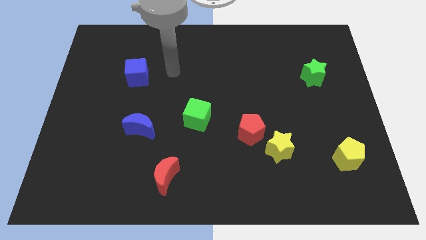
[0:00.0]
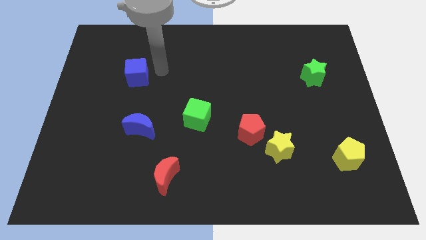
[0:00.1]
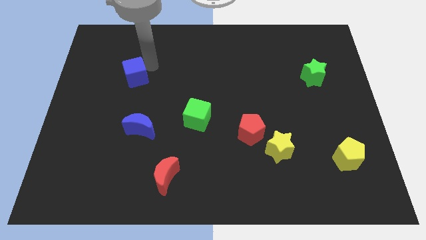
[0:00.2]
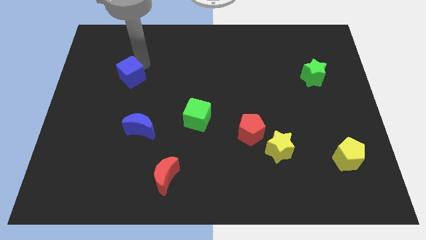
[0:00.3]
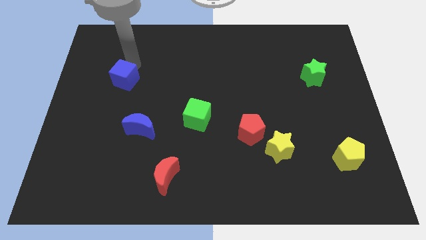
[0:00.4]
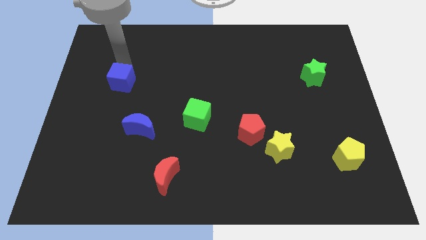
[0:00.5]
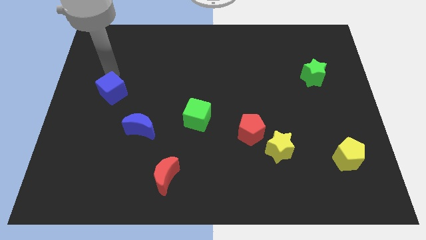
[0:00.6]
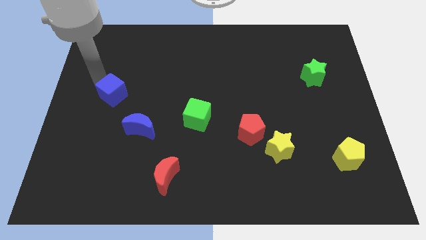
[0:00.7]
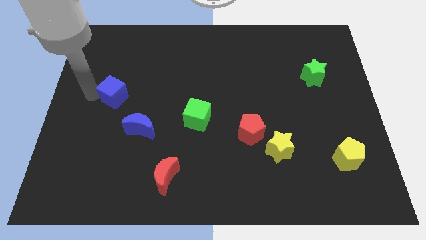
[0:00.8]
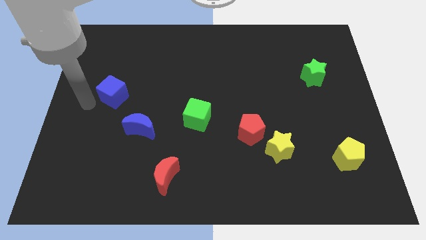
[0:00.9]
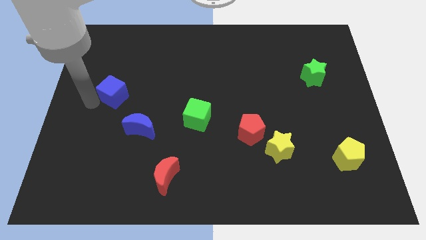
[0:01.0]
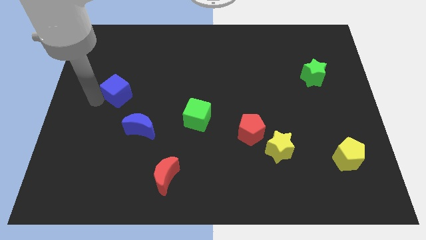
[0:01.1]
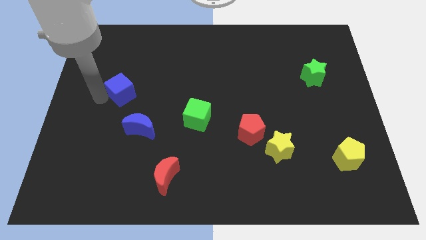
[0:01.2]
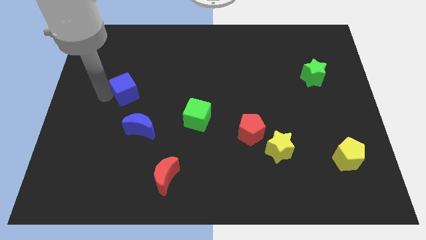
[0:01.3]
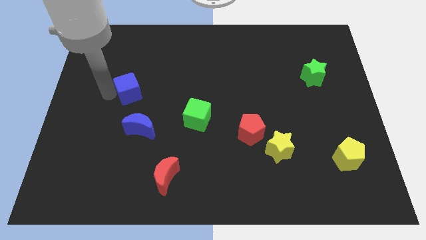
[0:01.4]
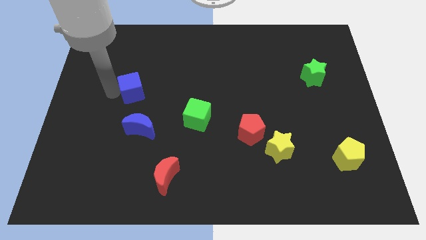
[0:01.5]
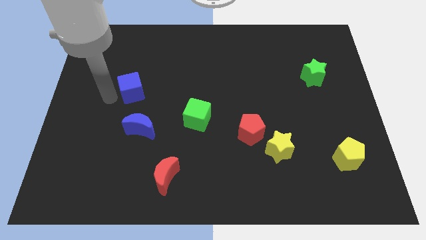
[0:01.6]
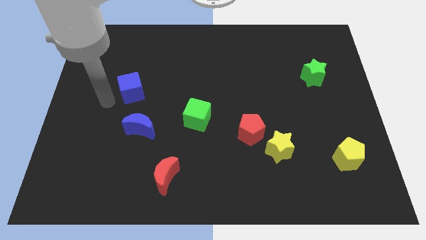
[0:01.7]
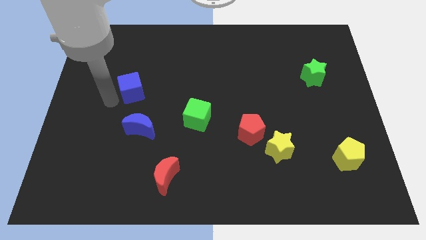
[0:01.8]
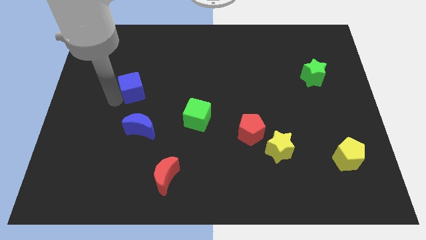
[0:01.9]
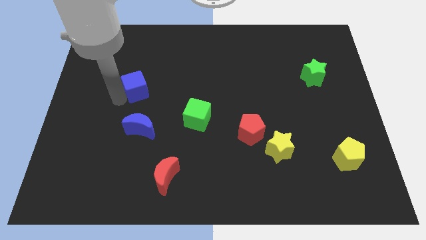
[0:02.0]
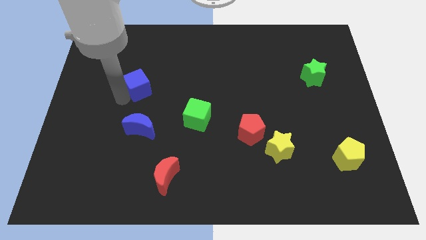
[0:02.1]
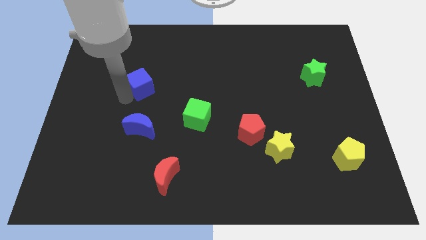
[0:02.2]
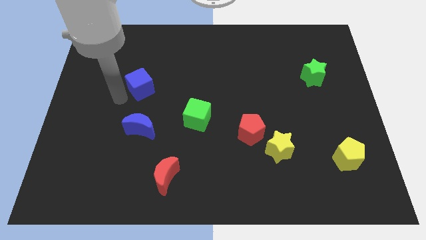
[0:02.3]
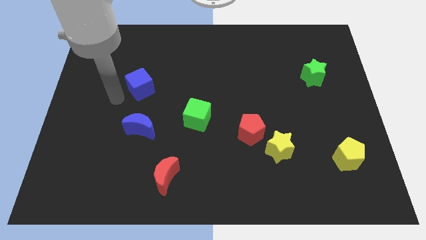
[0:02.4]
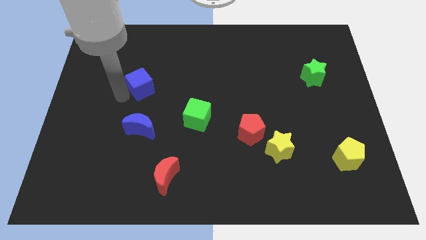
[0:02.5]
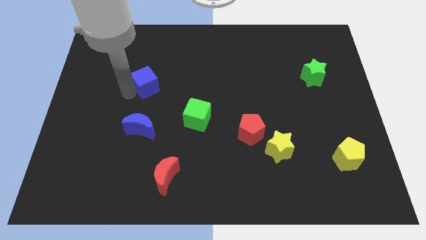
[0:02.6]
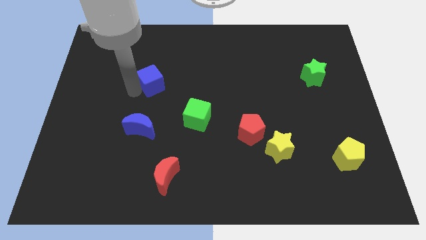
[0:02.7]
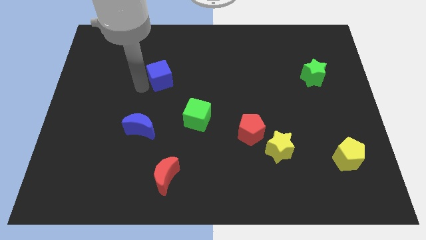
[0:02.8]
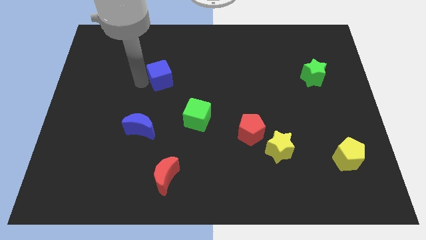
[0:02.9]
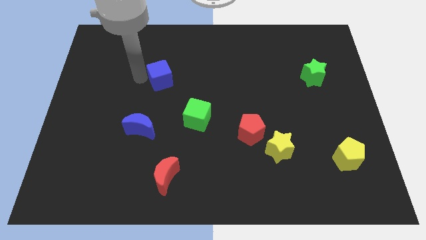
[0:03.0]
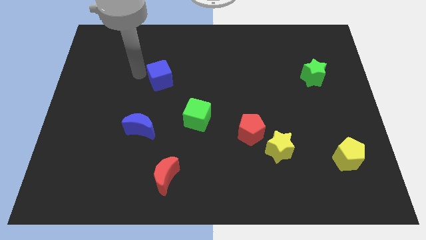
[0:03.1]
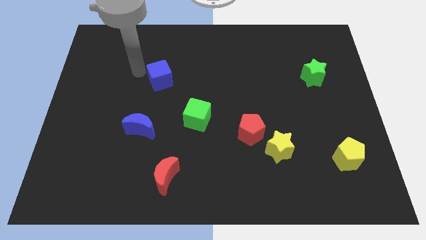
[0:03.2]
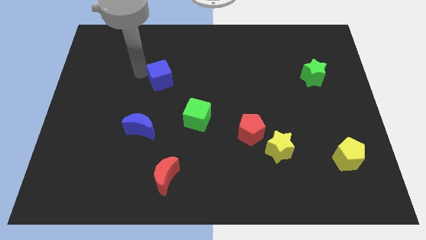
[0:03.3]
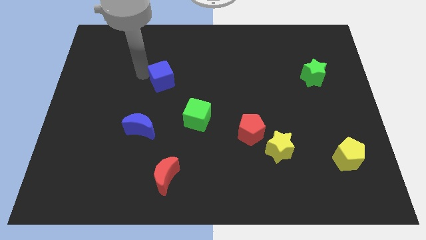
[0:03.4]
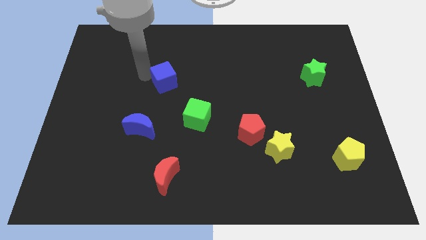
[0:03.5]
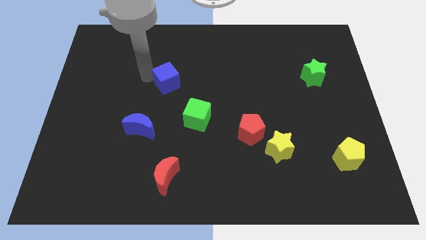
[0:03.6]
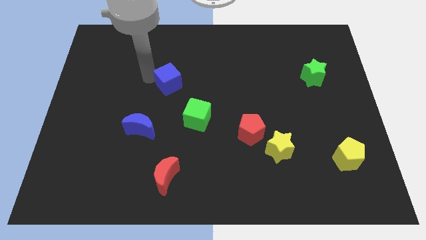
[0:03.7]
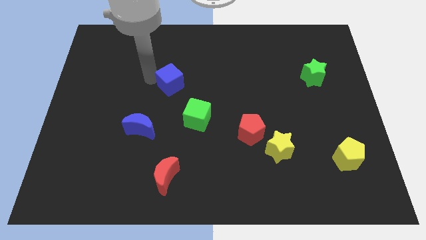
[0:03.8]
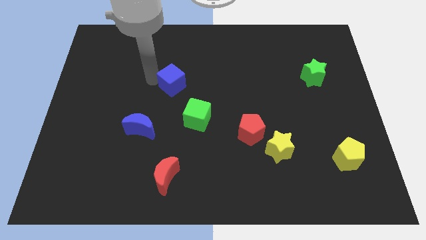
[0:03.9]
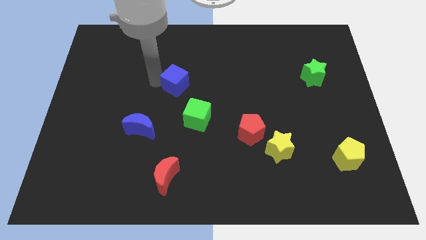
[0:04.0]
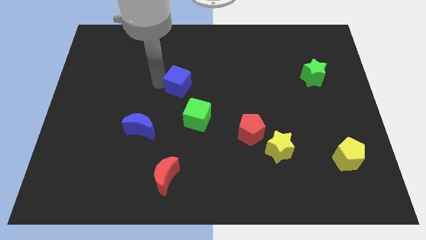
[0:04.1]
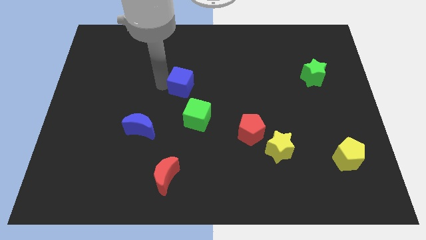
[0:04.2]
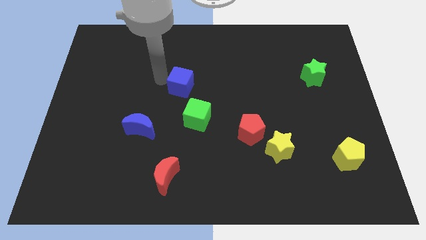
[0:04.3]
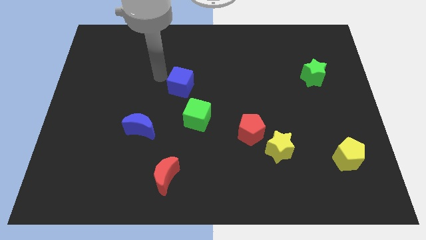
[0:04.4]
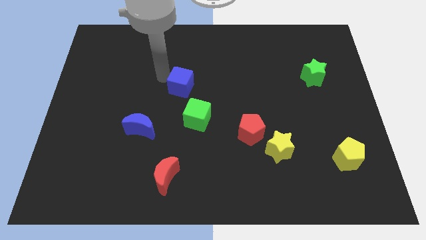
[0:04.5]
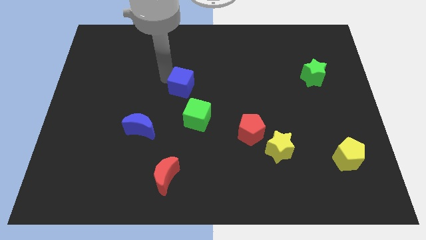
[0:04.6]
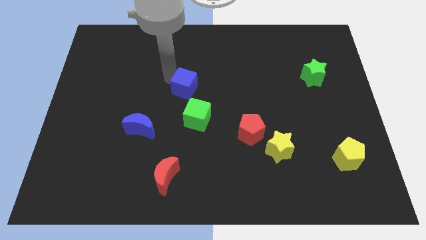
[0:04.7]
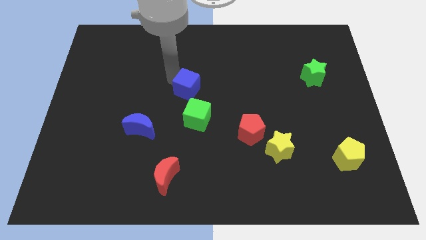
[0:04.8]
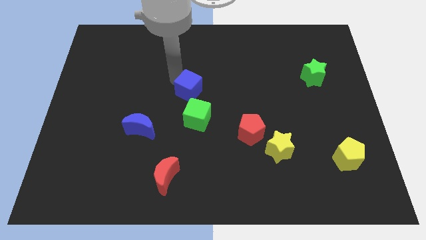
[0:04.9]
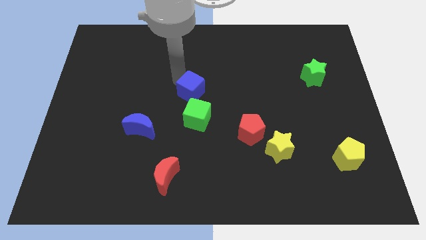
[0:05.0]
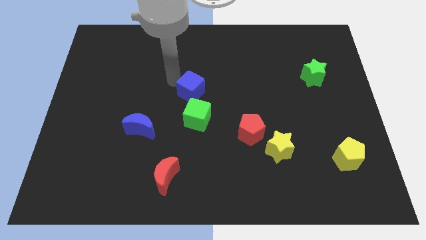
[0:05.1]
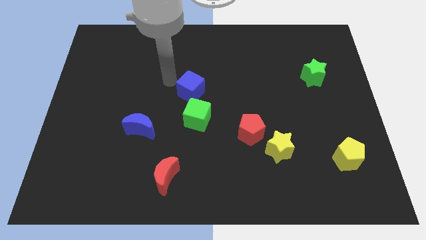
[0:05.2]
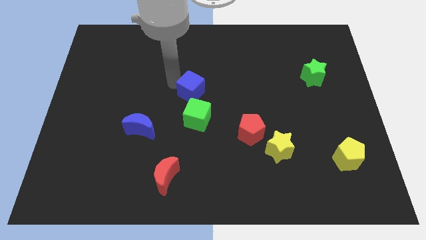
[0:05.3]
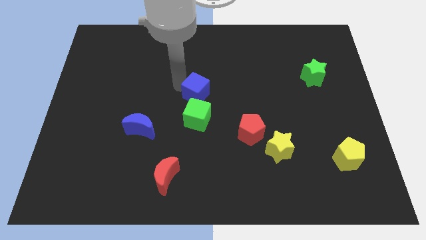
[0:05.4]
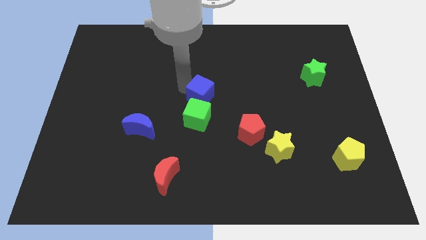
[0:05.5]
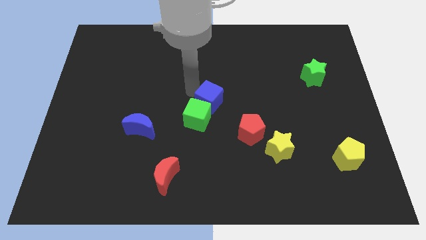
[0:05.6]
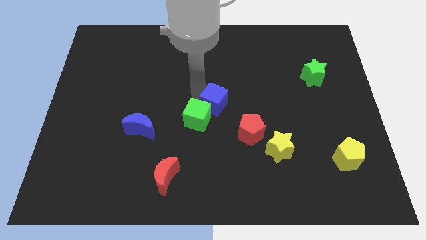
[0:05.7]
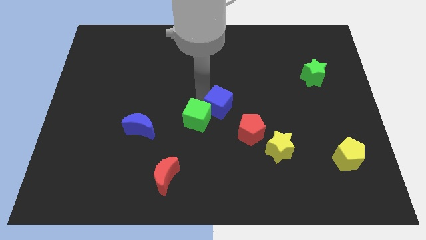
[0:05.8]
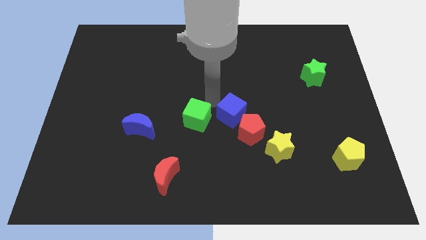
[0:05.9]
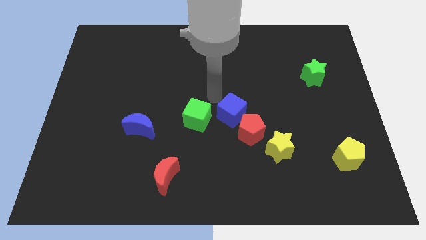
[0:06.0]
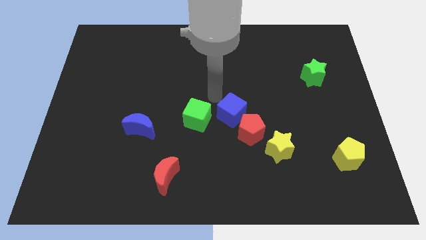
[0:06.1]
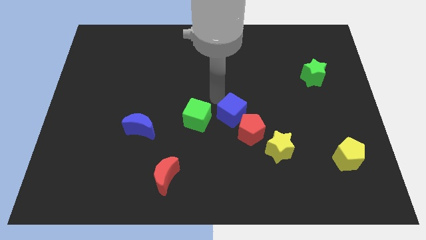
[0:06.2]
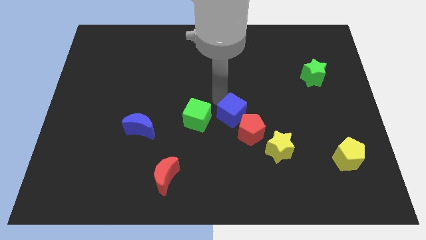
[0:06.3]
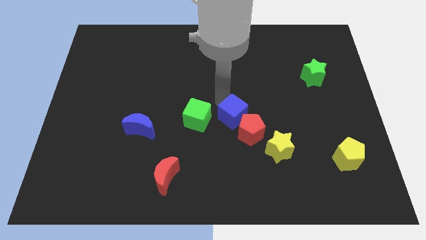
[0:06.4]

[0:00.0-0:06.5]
slide the blue cube to the red pentagon

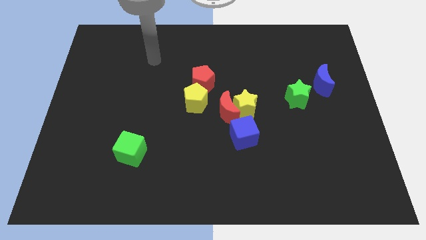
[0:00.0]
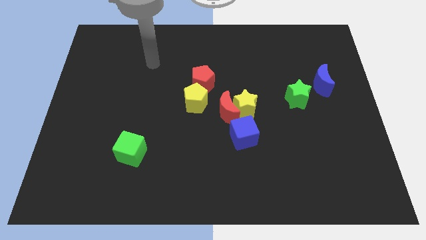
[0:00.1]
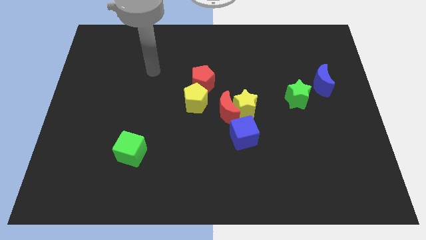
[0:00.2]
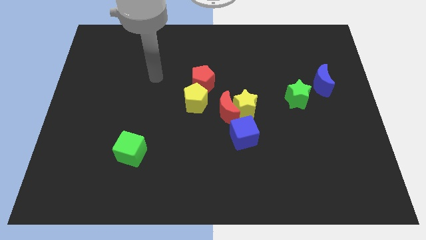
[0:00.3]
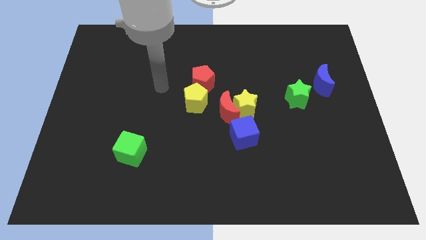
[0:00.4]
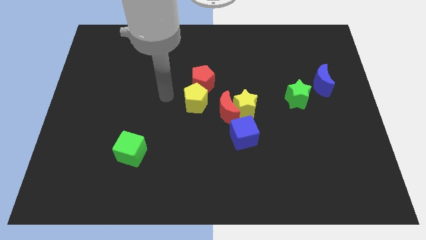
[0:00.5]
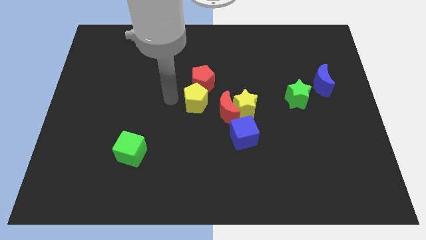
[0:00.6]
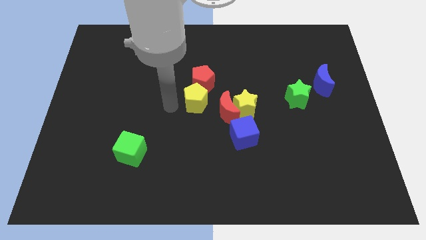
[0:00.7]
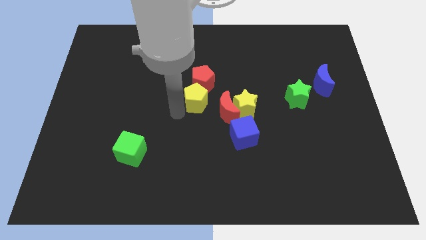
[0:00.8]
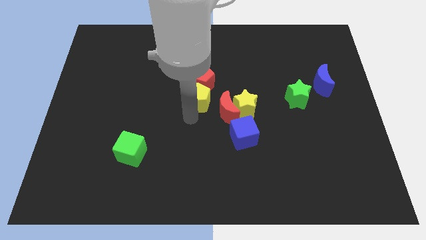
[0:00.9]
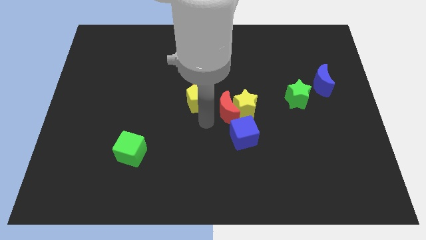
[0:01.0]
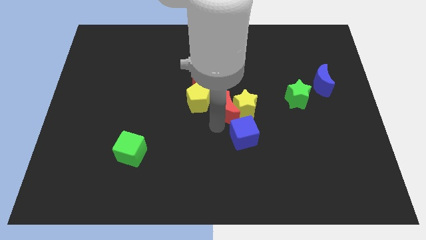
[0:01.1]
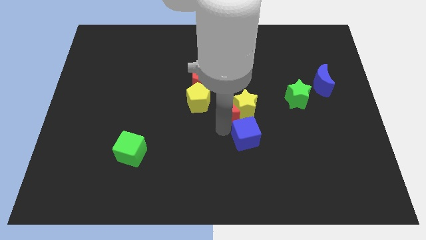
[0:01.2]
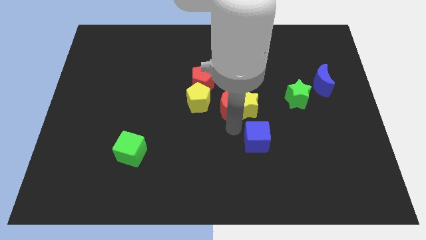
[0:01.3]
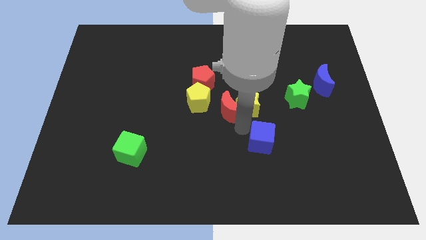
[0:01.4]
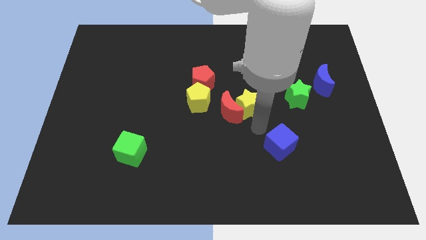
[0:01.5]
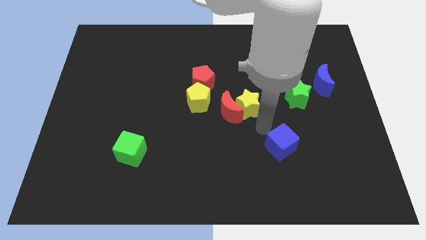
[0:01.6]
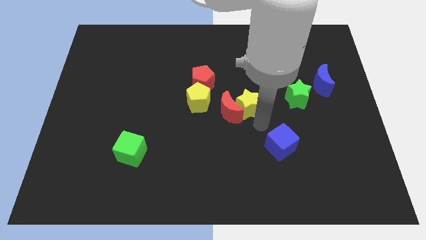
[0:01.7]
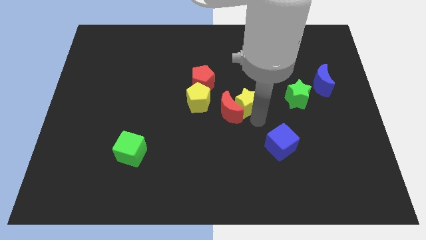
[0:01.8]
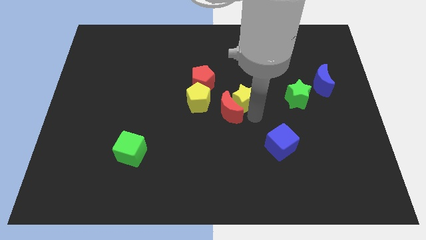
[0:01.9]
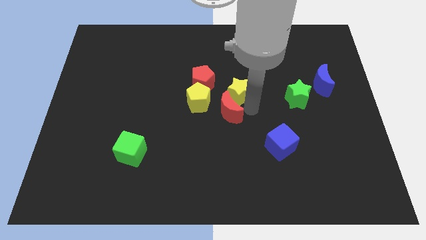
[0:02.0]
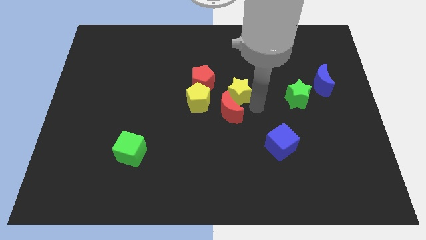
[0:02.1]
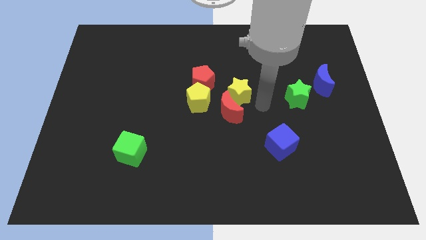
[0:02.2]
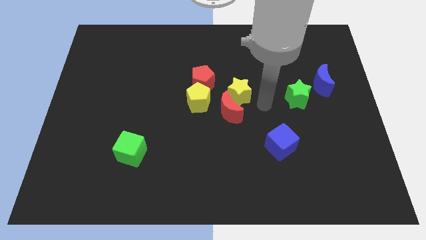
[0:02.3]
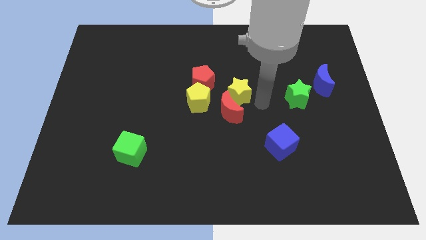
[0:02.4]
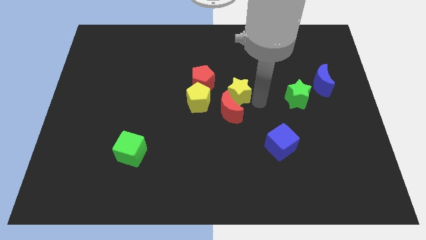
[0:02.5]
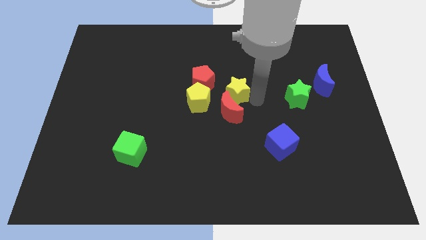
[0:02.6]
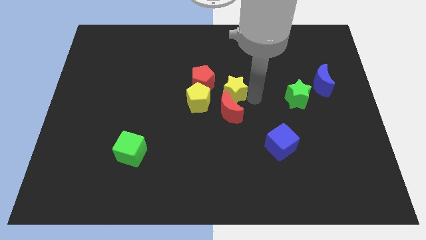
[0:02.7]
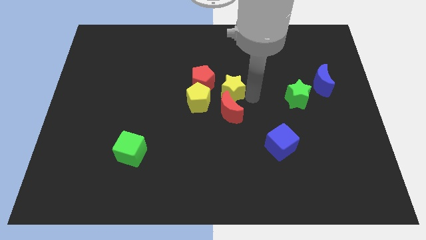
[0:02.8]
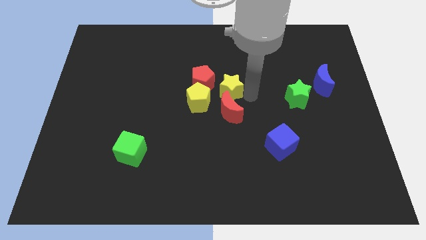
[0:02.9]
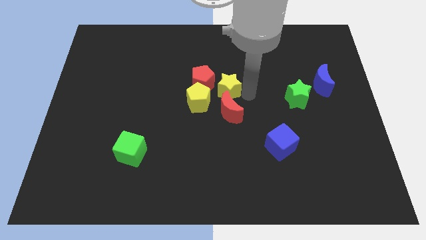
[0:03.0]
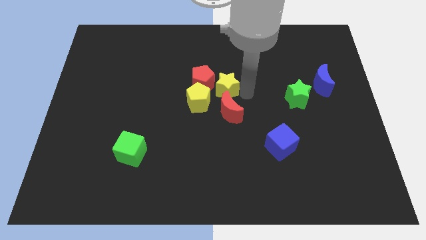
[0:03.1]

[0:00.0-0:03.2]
push the yellow star to the red pentagon
